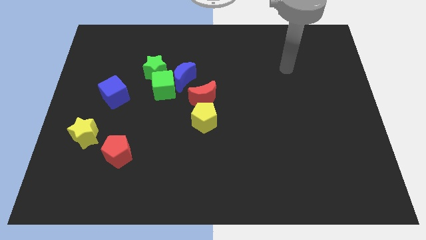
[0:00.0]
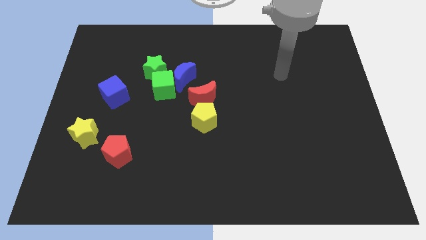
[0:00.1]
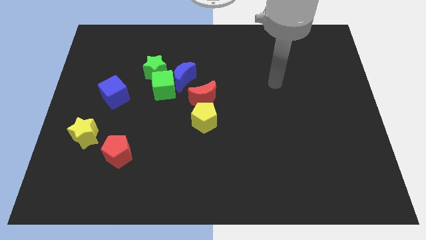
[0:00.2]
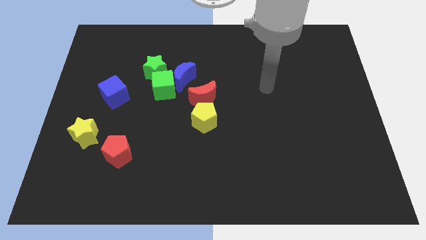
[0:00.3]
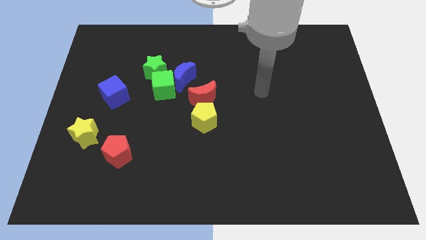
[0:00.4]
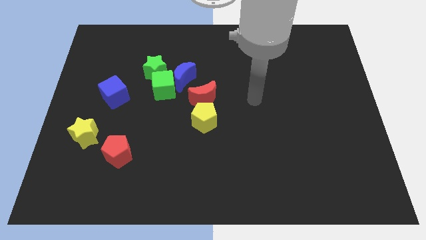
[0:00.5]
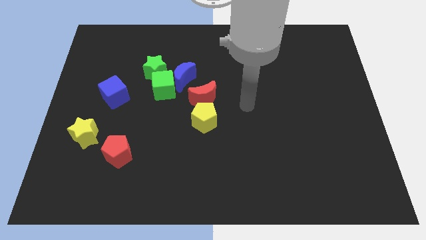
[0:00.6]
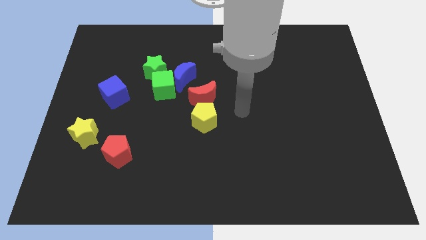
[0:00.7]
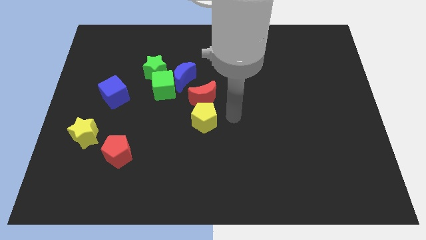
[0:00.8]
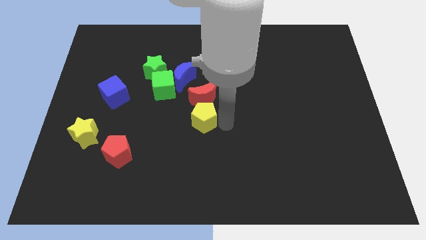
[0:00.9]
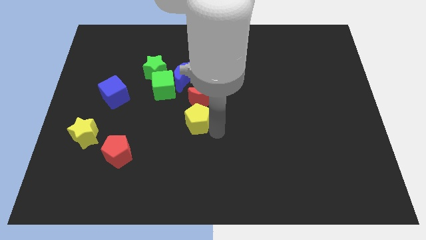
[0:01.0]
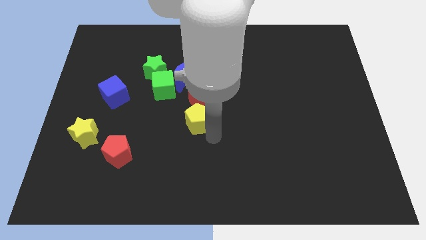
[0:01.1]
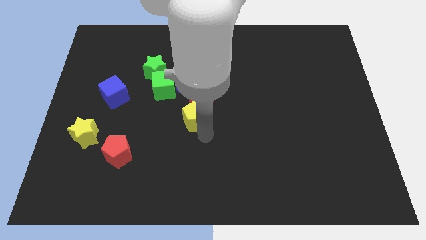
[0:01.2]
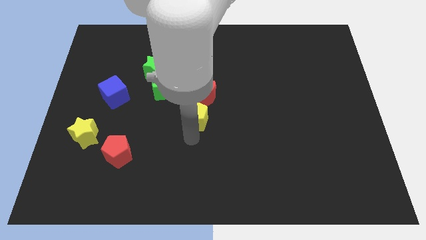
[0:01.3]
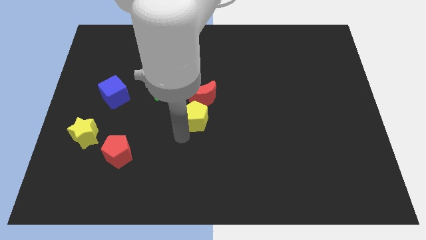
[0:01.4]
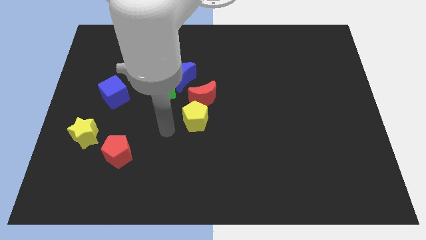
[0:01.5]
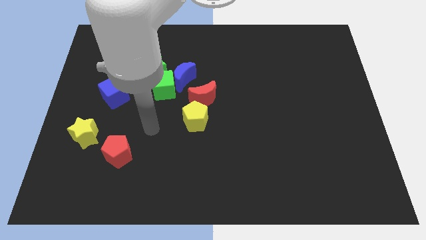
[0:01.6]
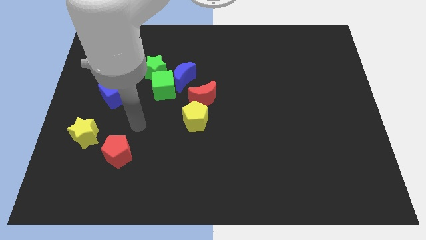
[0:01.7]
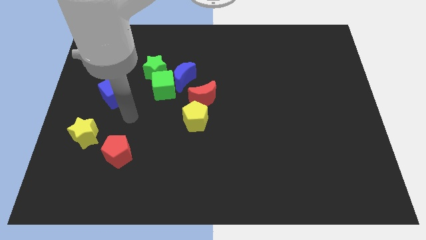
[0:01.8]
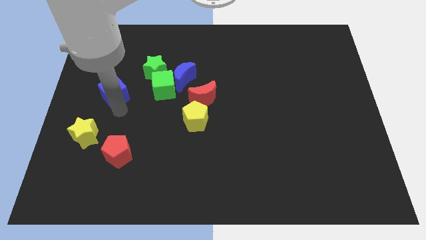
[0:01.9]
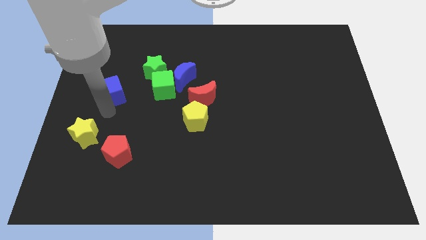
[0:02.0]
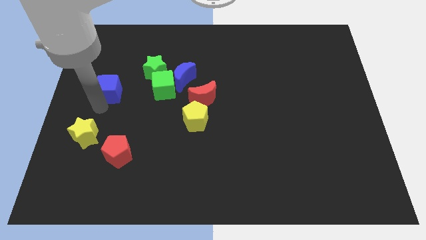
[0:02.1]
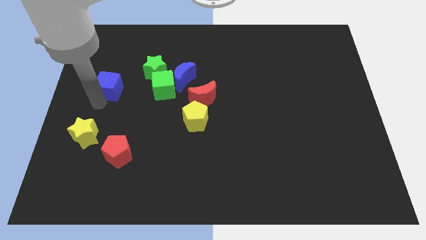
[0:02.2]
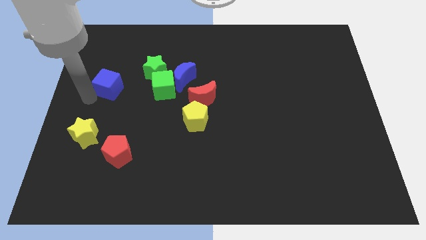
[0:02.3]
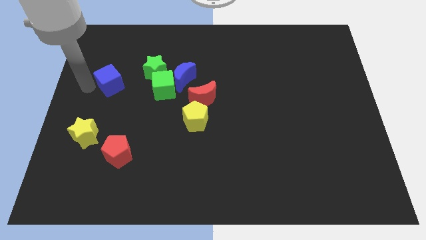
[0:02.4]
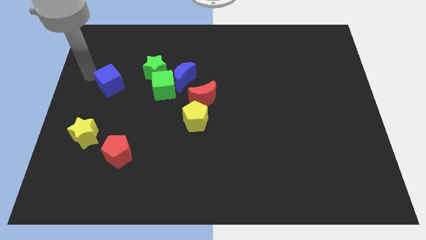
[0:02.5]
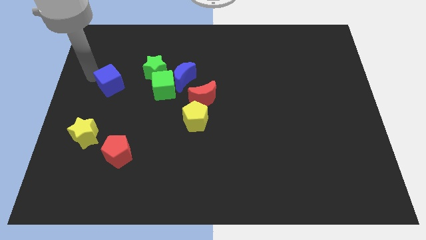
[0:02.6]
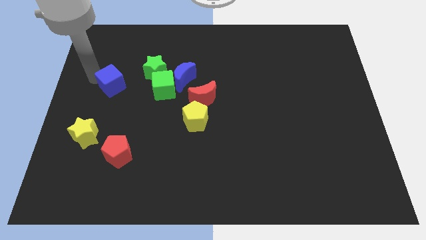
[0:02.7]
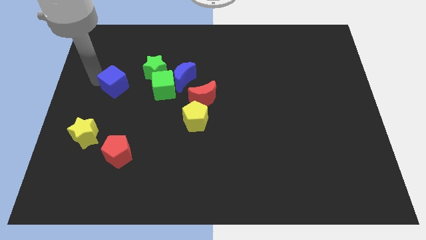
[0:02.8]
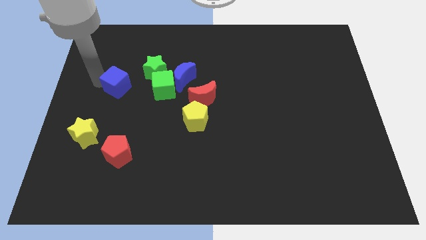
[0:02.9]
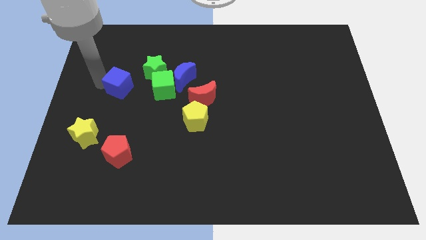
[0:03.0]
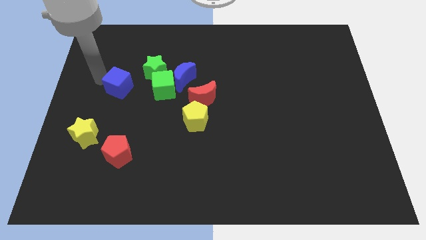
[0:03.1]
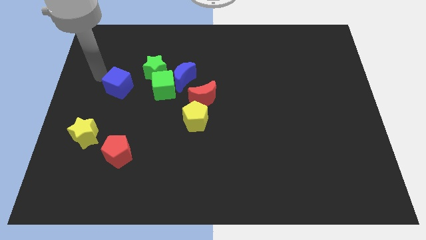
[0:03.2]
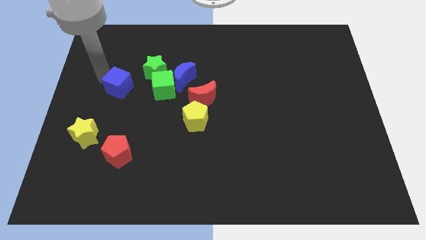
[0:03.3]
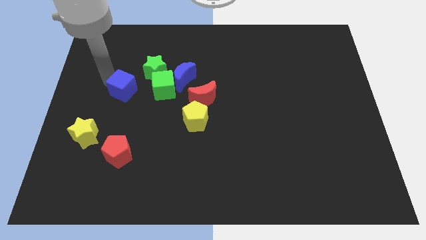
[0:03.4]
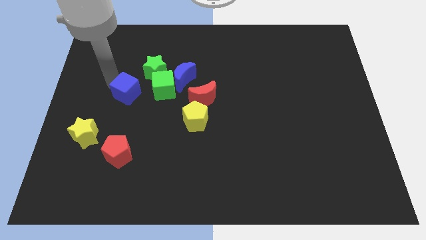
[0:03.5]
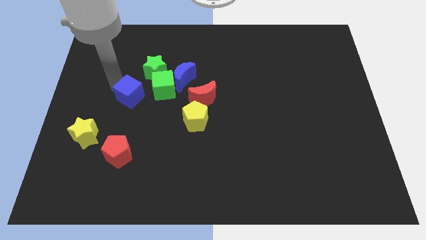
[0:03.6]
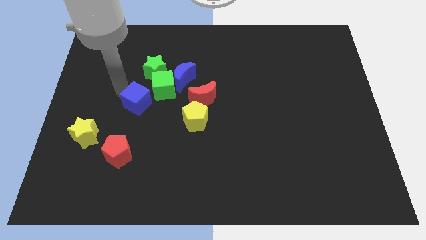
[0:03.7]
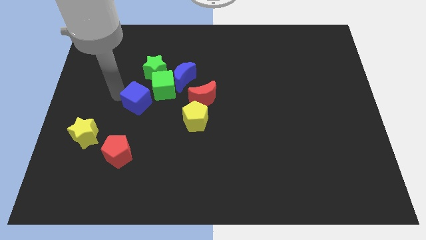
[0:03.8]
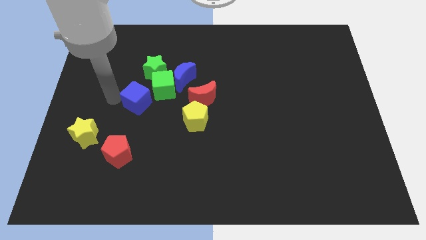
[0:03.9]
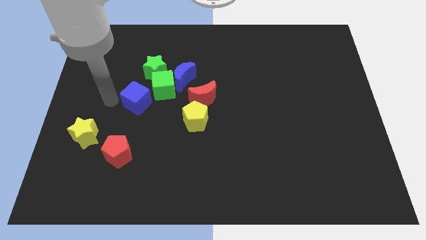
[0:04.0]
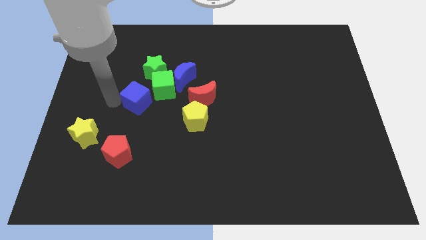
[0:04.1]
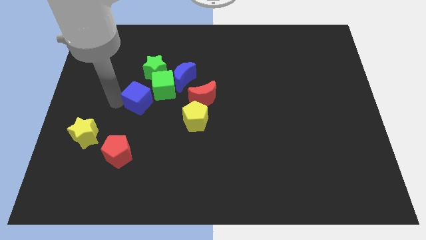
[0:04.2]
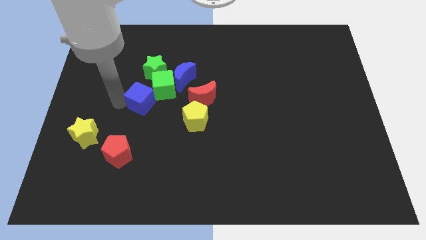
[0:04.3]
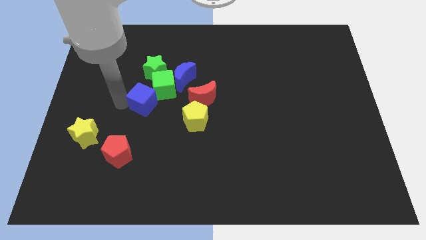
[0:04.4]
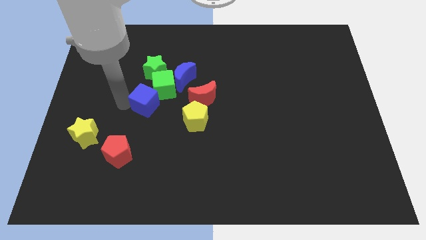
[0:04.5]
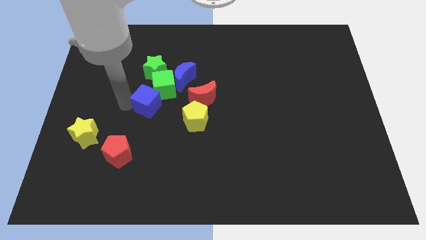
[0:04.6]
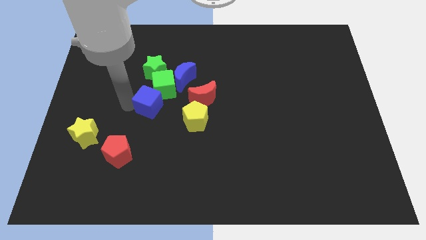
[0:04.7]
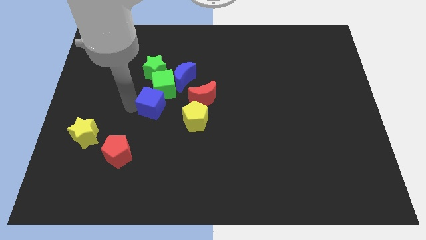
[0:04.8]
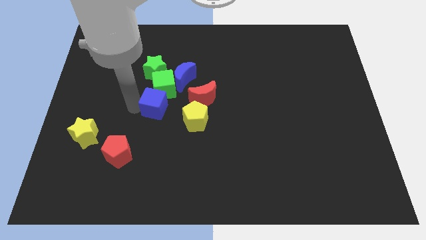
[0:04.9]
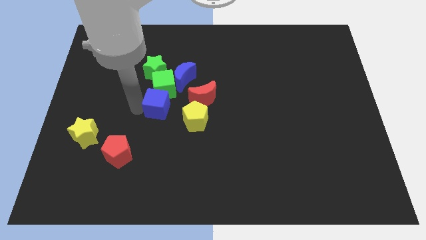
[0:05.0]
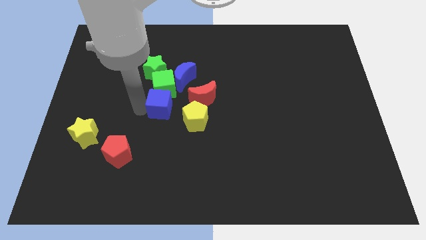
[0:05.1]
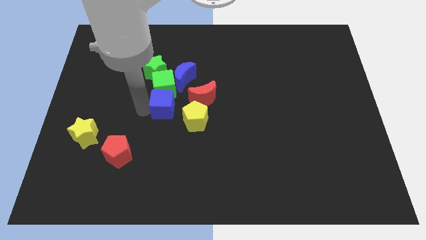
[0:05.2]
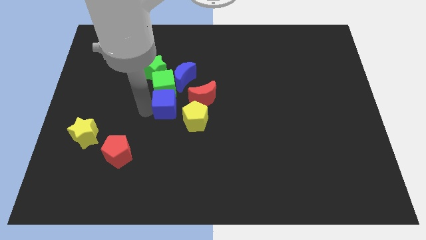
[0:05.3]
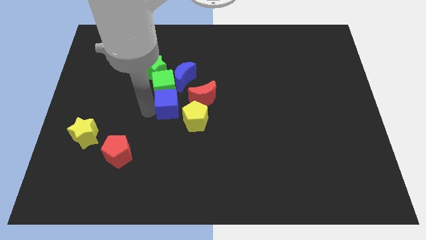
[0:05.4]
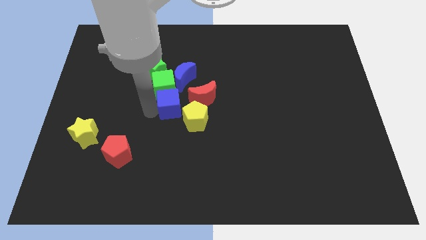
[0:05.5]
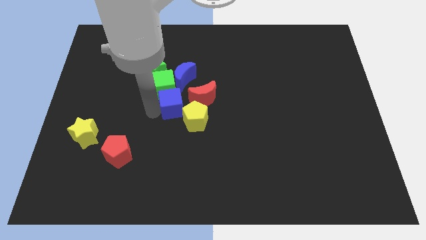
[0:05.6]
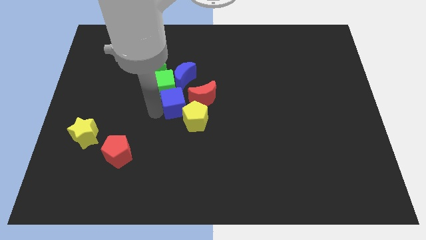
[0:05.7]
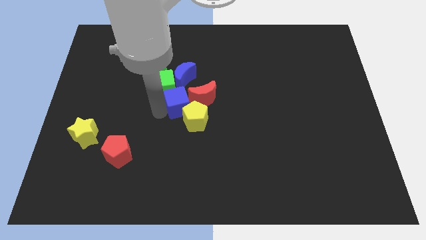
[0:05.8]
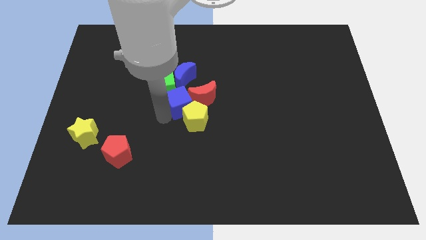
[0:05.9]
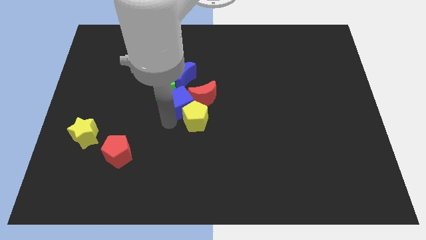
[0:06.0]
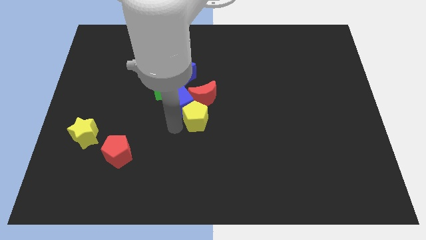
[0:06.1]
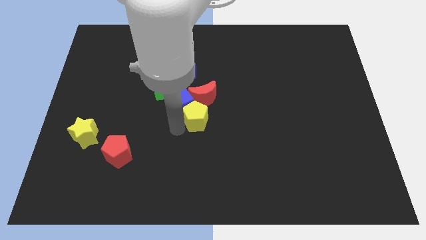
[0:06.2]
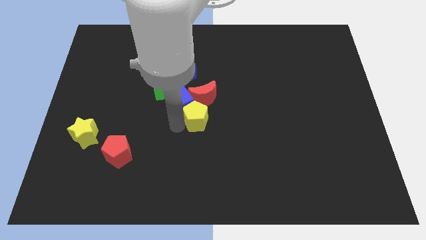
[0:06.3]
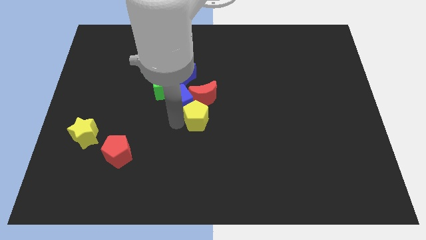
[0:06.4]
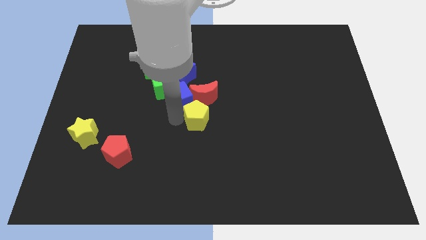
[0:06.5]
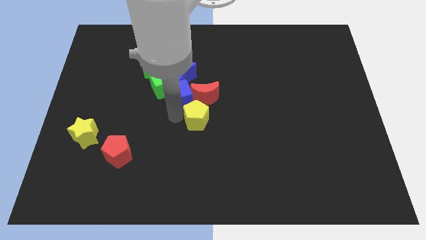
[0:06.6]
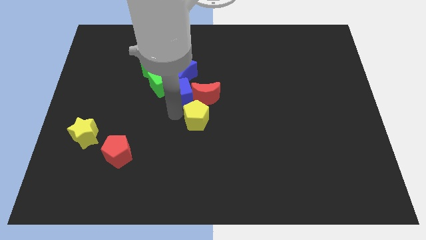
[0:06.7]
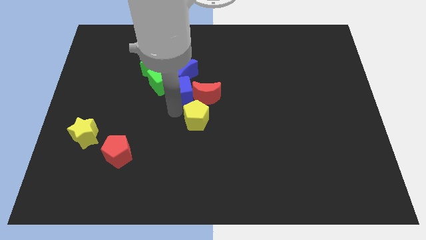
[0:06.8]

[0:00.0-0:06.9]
slide the blue cube next to the blue moon

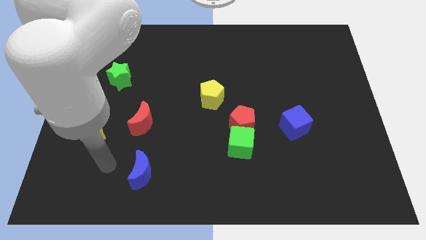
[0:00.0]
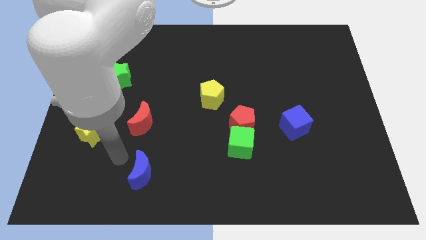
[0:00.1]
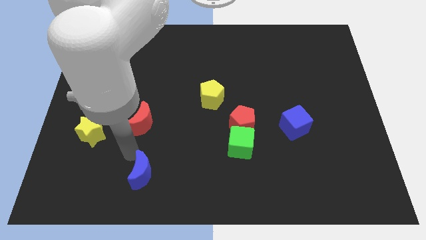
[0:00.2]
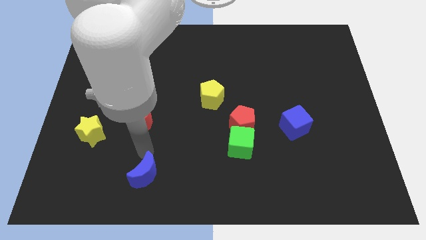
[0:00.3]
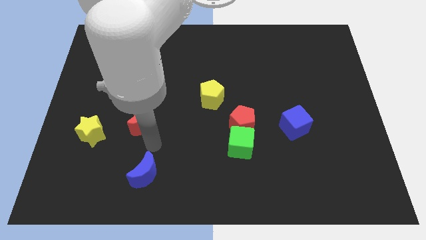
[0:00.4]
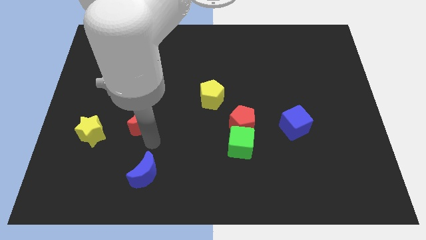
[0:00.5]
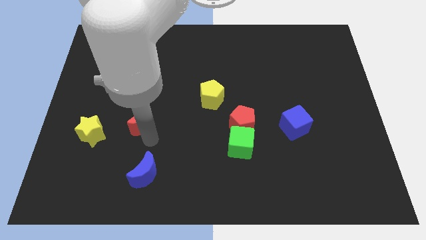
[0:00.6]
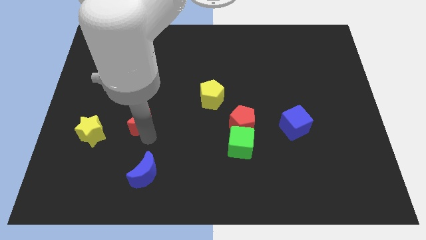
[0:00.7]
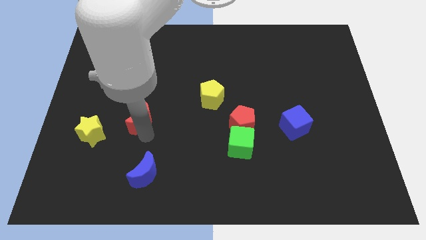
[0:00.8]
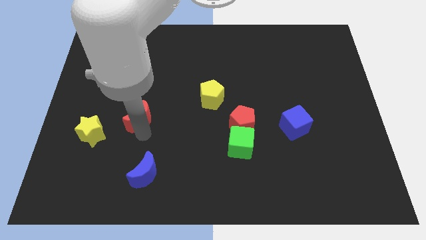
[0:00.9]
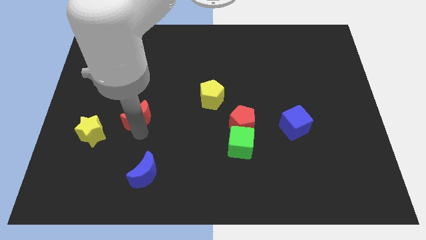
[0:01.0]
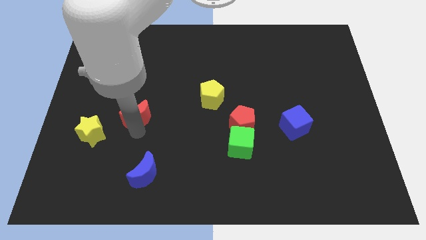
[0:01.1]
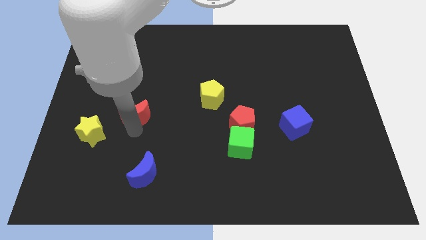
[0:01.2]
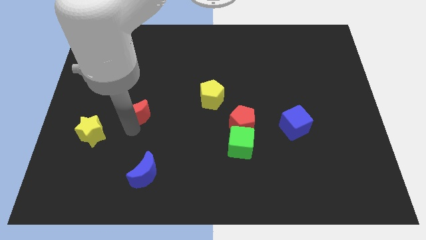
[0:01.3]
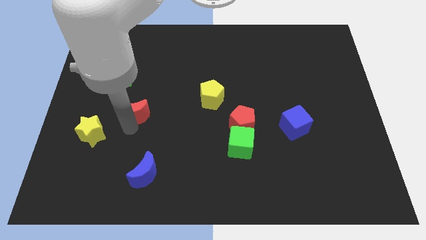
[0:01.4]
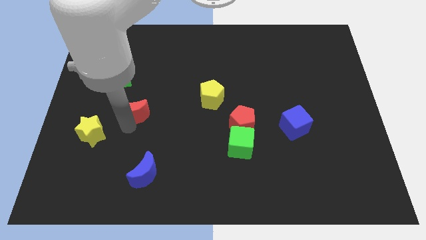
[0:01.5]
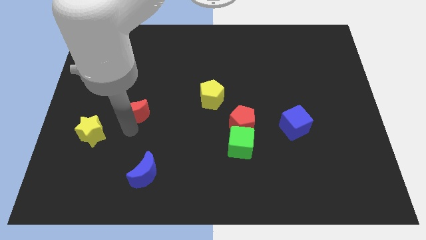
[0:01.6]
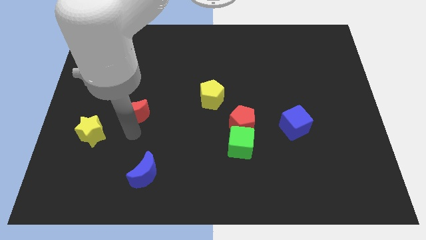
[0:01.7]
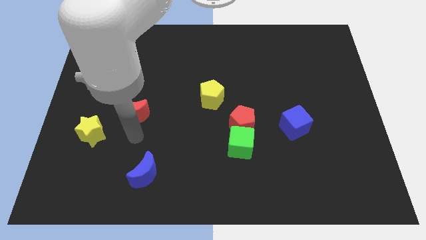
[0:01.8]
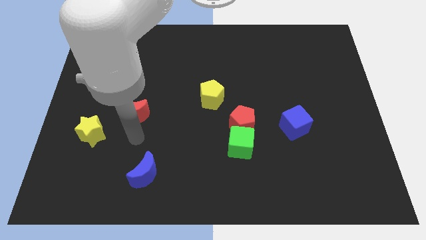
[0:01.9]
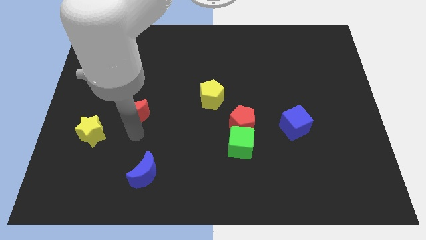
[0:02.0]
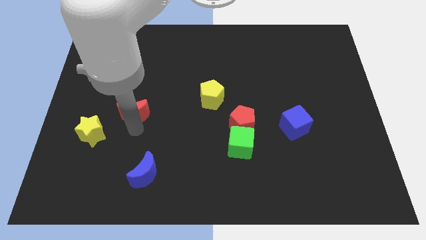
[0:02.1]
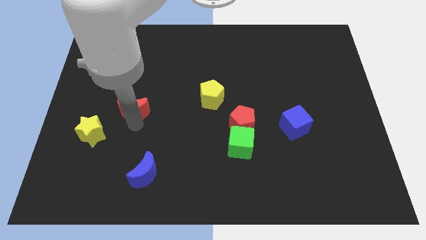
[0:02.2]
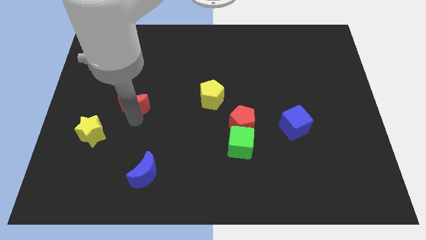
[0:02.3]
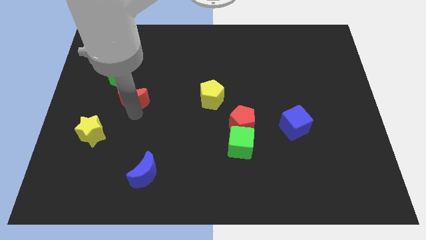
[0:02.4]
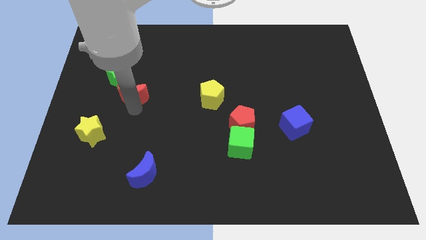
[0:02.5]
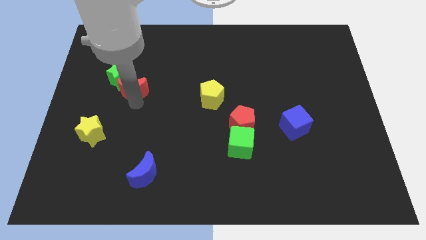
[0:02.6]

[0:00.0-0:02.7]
put the red moon next to the green star
